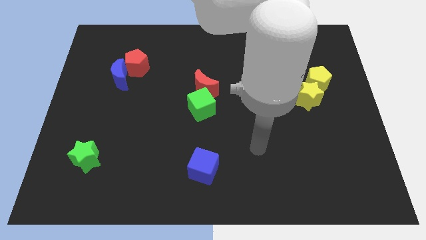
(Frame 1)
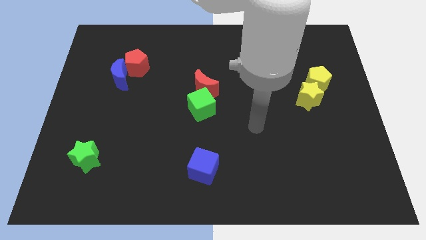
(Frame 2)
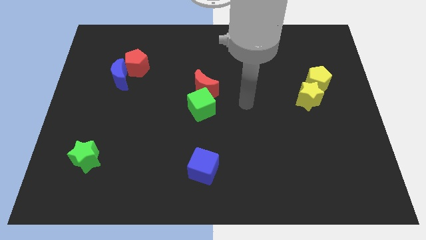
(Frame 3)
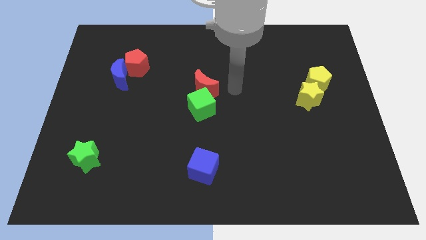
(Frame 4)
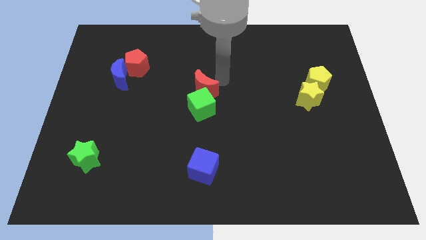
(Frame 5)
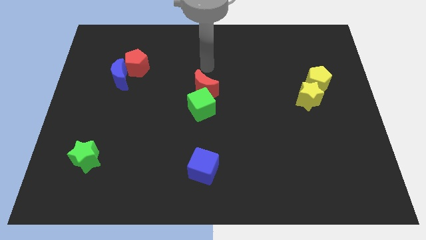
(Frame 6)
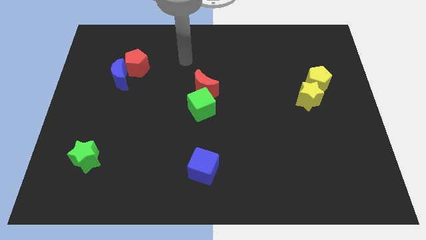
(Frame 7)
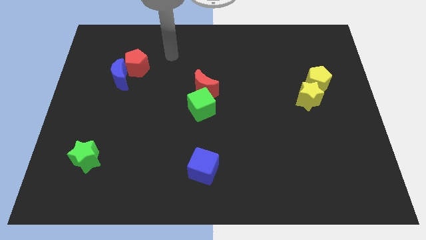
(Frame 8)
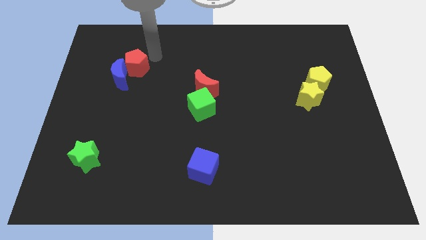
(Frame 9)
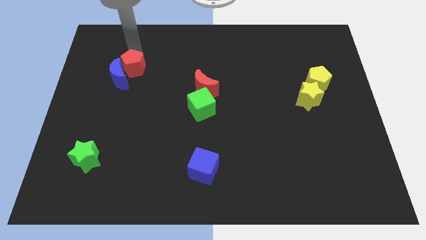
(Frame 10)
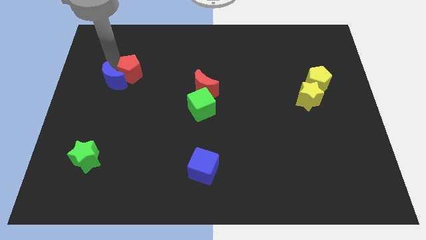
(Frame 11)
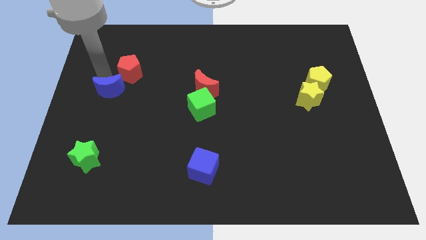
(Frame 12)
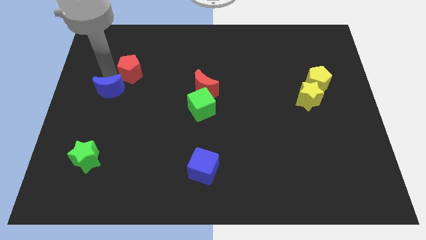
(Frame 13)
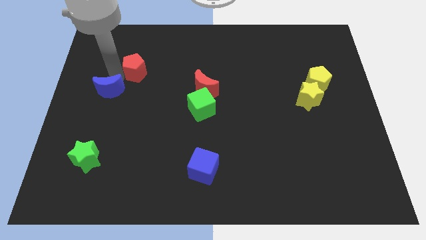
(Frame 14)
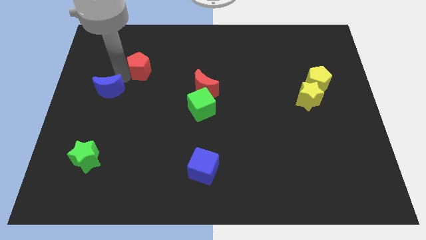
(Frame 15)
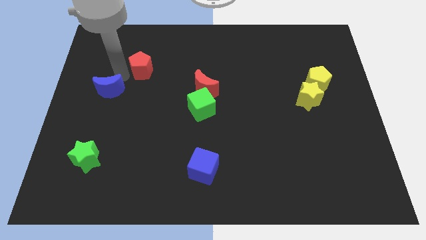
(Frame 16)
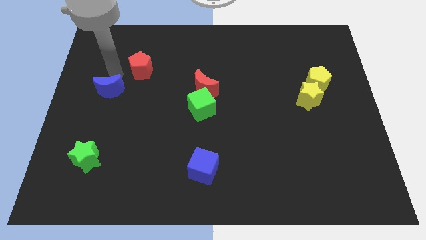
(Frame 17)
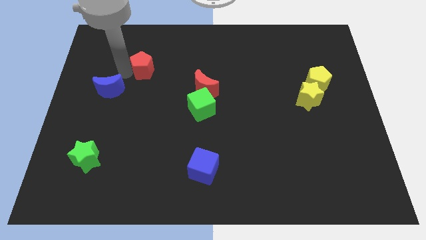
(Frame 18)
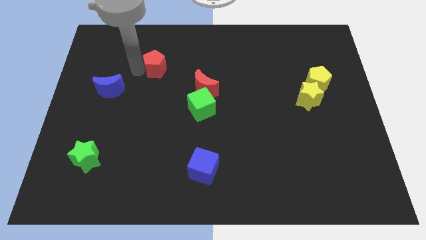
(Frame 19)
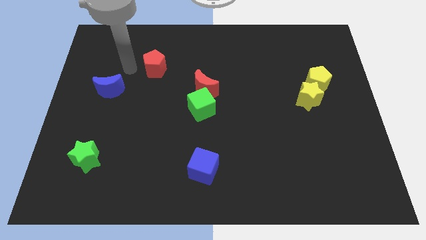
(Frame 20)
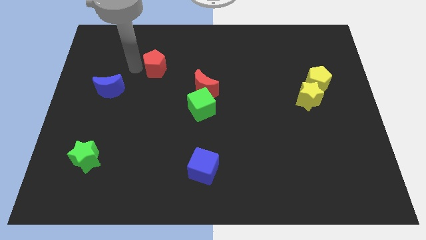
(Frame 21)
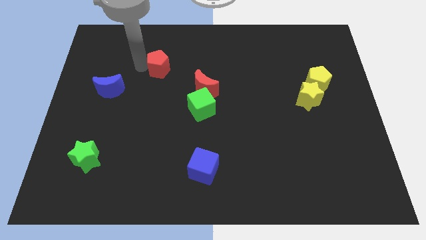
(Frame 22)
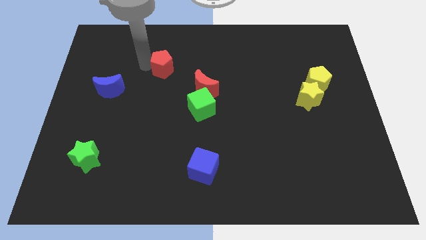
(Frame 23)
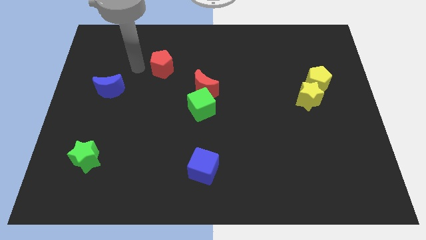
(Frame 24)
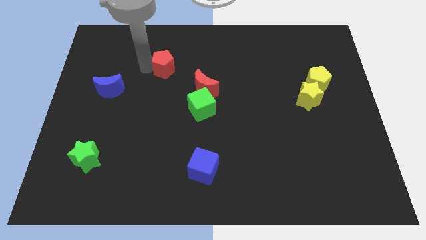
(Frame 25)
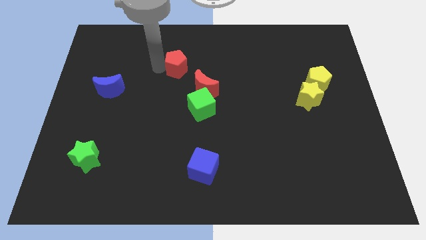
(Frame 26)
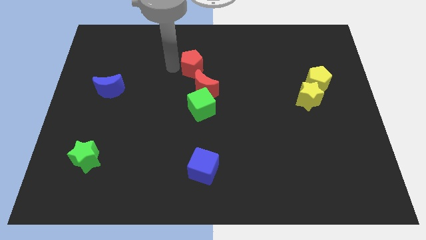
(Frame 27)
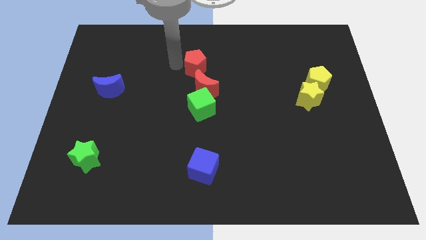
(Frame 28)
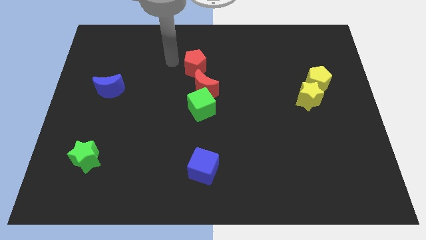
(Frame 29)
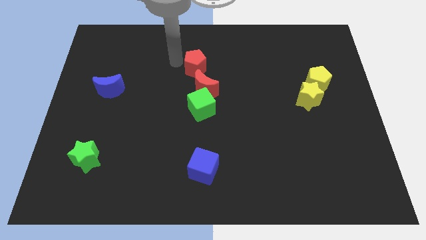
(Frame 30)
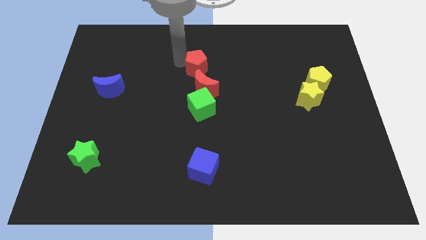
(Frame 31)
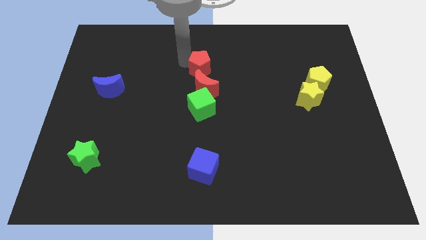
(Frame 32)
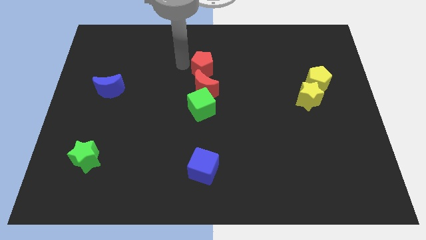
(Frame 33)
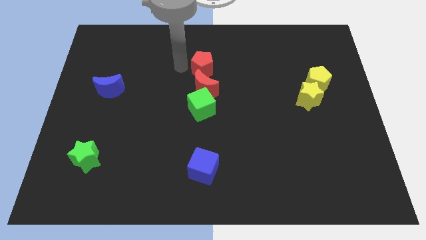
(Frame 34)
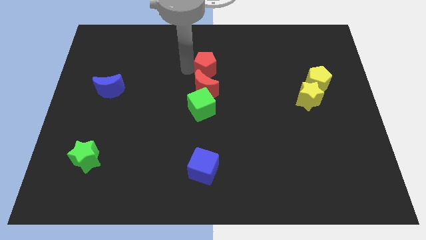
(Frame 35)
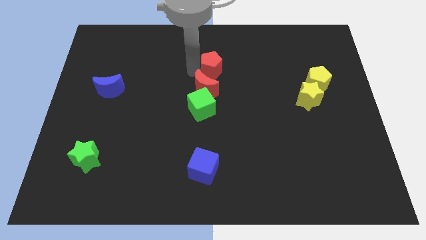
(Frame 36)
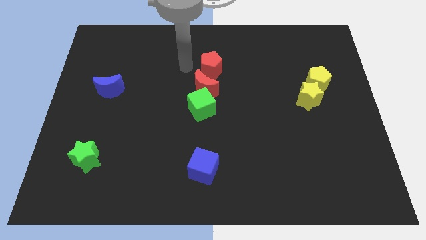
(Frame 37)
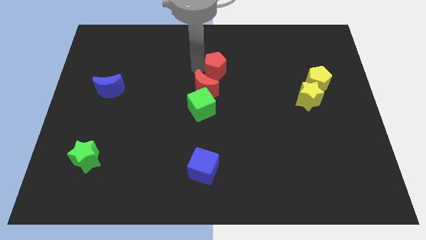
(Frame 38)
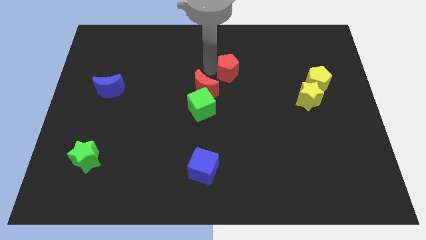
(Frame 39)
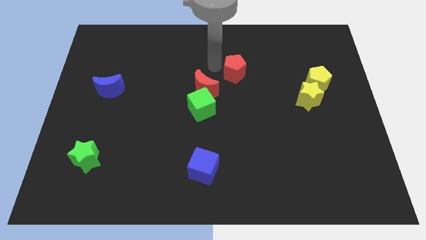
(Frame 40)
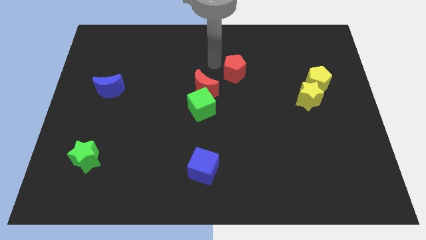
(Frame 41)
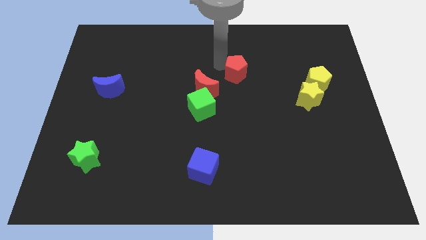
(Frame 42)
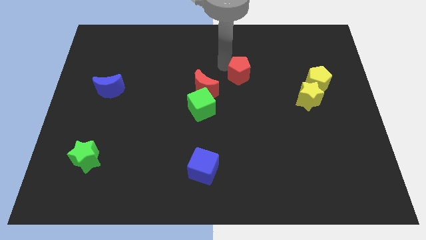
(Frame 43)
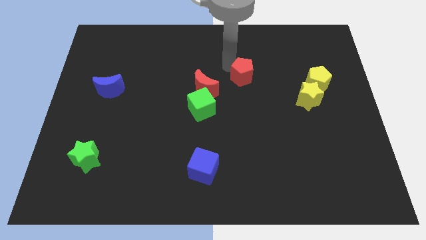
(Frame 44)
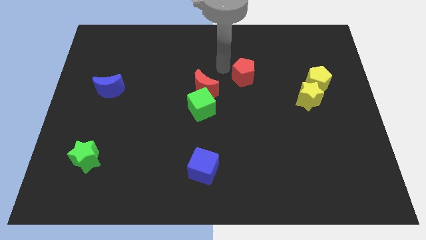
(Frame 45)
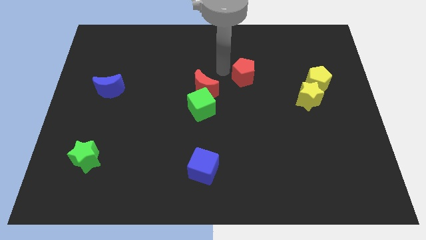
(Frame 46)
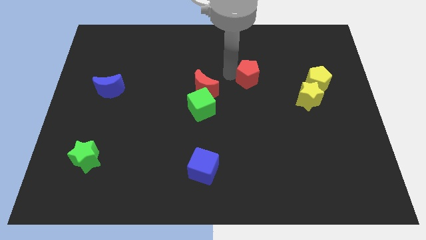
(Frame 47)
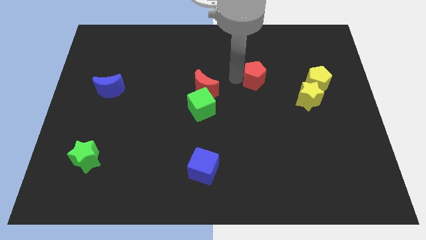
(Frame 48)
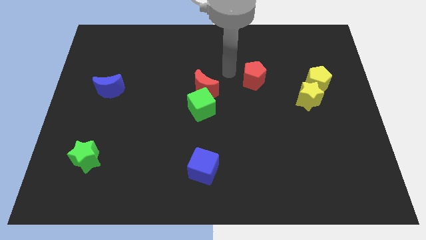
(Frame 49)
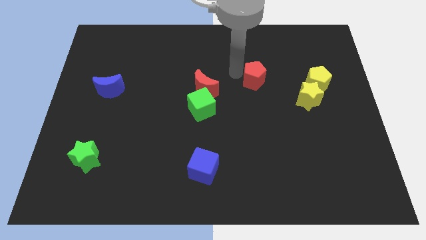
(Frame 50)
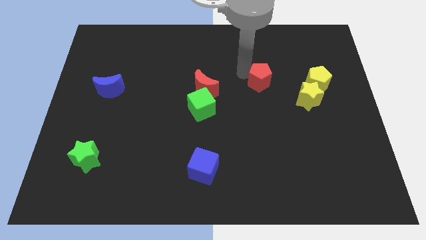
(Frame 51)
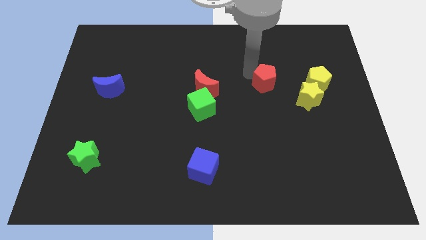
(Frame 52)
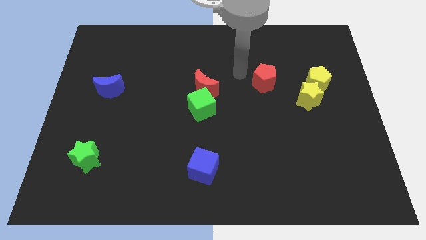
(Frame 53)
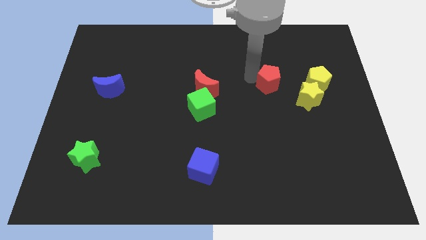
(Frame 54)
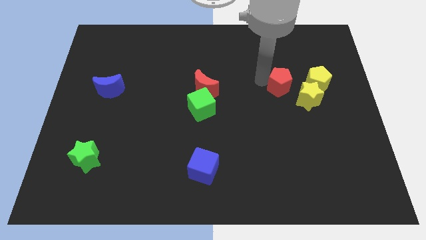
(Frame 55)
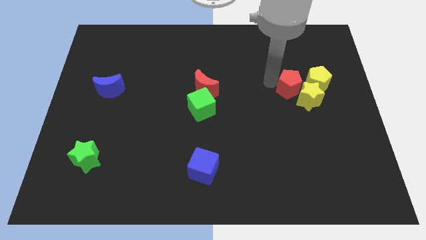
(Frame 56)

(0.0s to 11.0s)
put the red pentagon next to the yellow star

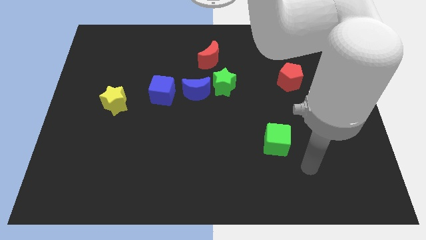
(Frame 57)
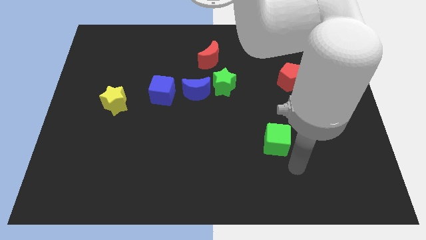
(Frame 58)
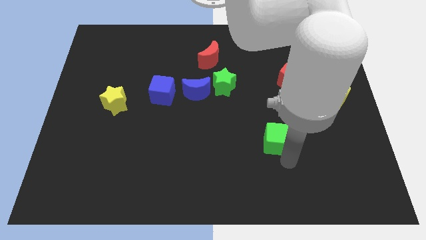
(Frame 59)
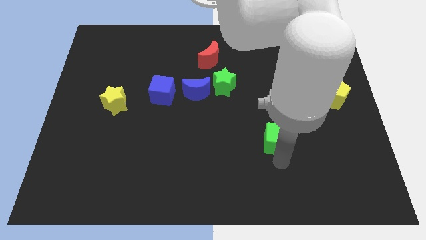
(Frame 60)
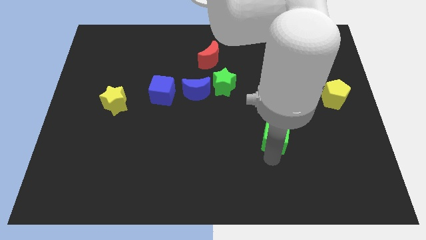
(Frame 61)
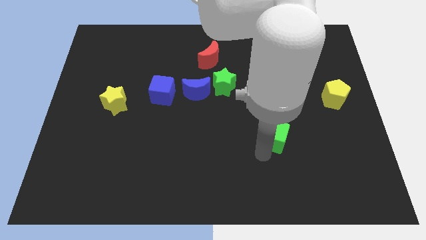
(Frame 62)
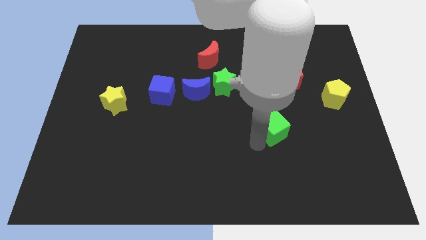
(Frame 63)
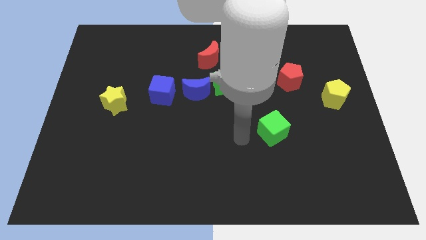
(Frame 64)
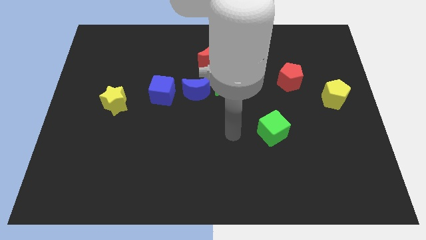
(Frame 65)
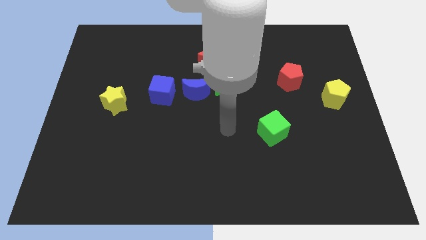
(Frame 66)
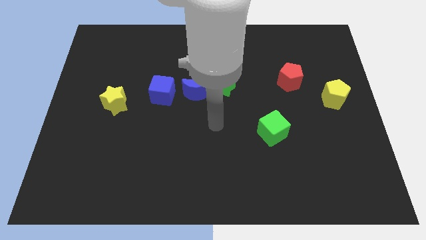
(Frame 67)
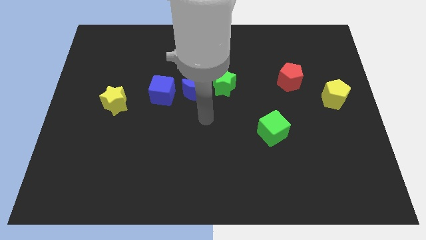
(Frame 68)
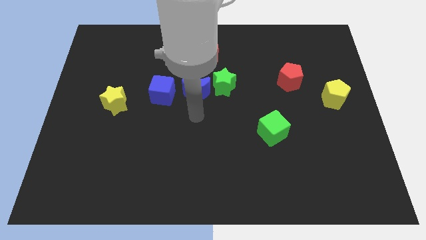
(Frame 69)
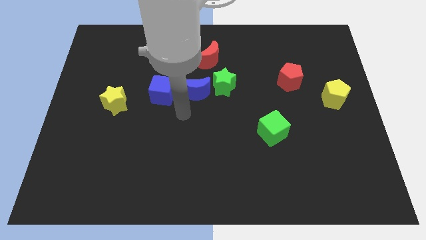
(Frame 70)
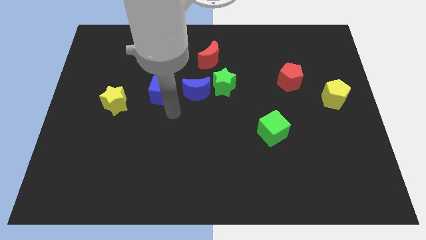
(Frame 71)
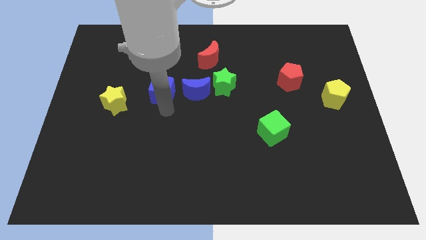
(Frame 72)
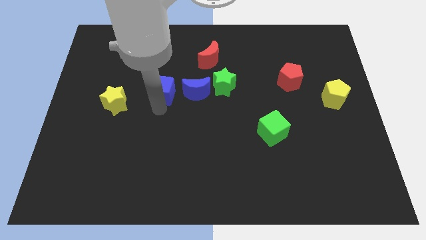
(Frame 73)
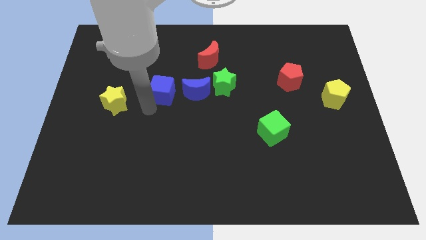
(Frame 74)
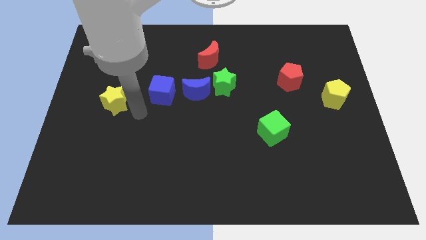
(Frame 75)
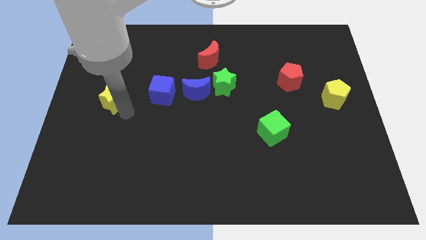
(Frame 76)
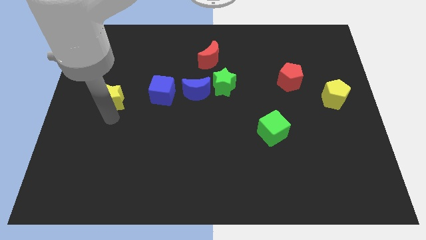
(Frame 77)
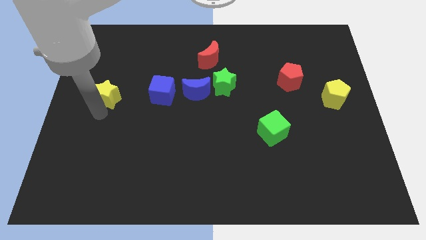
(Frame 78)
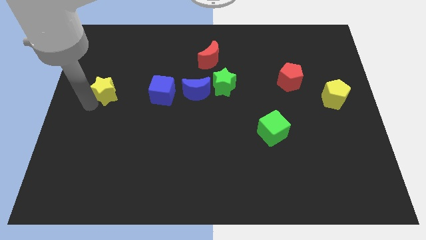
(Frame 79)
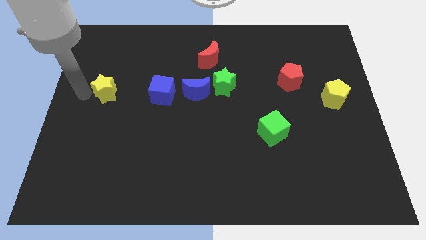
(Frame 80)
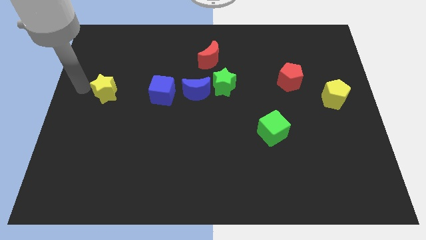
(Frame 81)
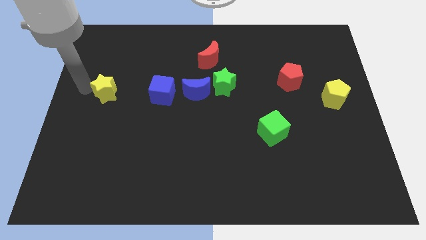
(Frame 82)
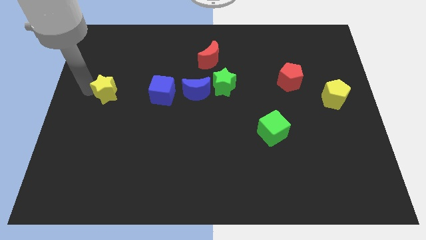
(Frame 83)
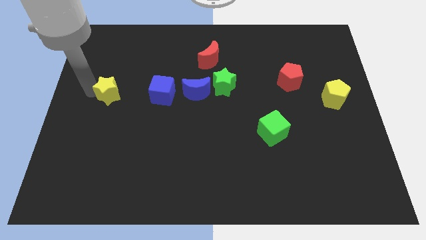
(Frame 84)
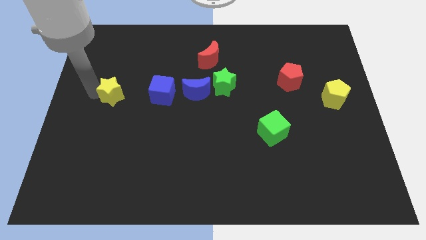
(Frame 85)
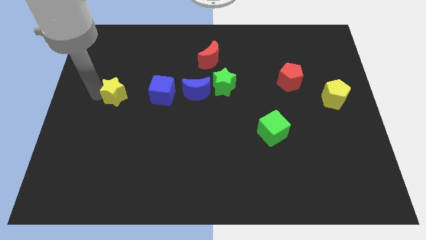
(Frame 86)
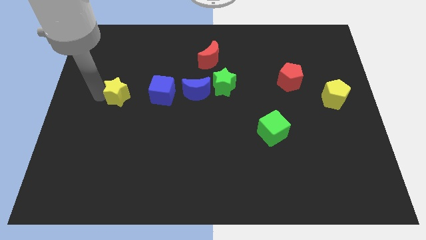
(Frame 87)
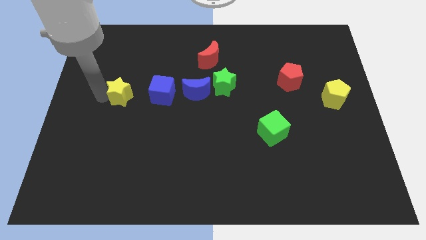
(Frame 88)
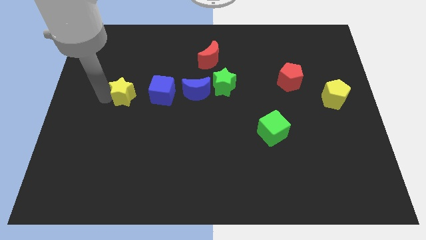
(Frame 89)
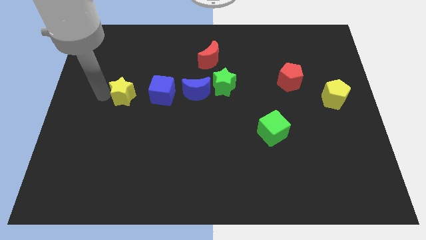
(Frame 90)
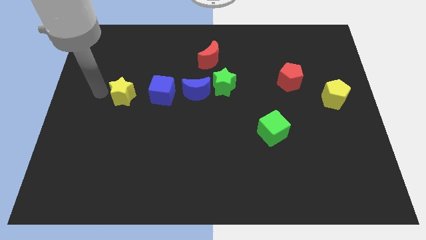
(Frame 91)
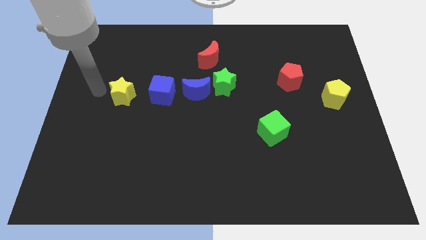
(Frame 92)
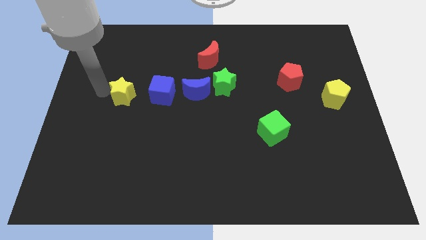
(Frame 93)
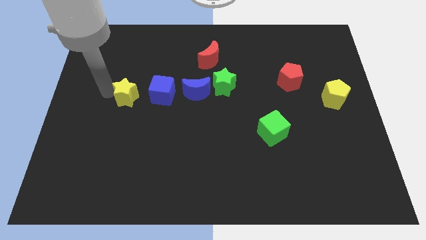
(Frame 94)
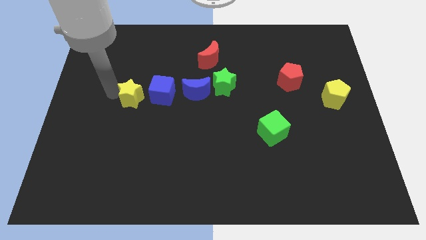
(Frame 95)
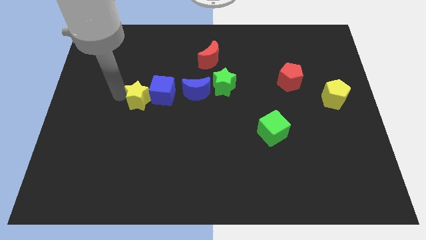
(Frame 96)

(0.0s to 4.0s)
push the yellow star towards the blue cube
